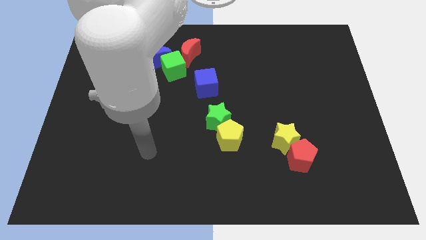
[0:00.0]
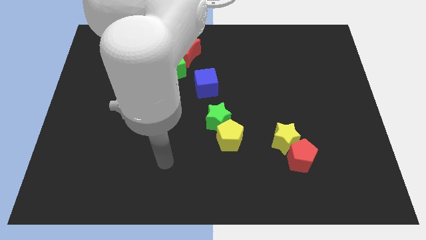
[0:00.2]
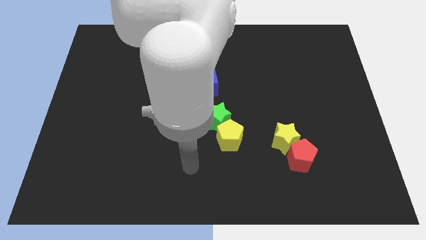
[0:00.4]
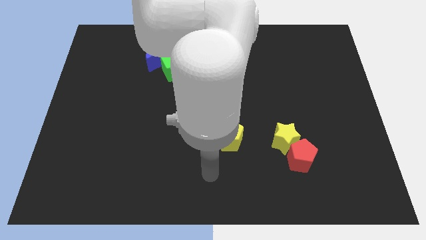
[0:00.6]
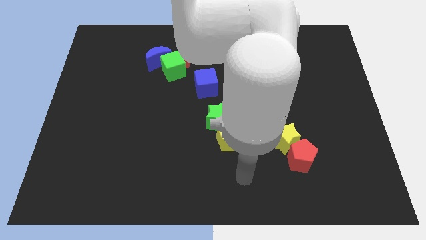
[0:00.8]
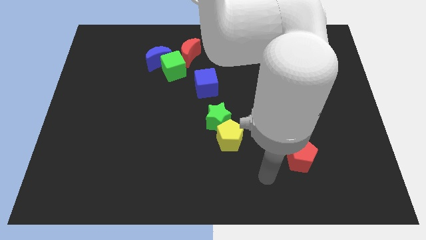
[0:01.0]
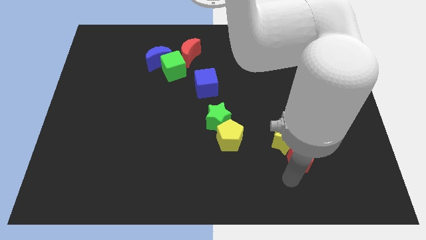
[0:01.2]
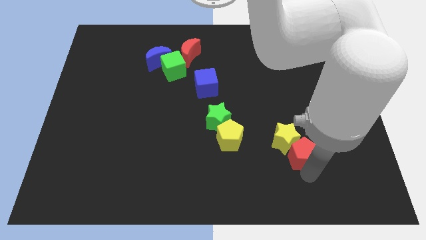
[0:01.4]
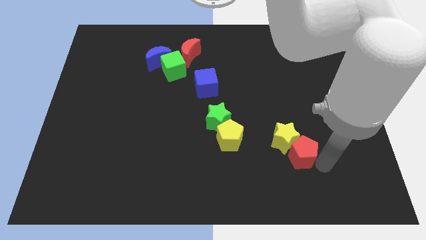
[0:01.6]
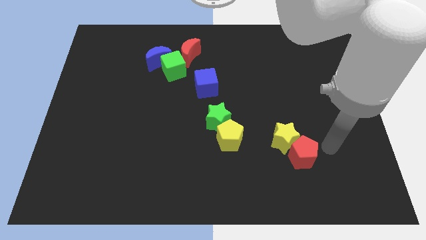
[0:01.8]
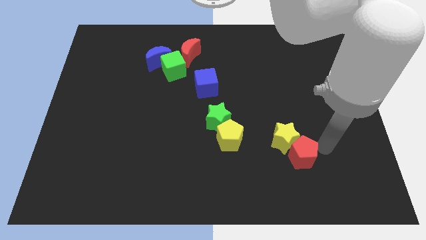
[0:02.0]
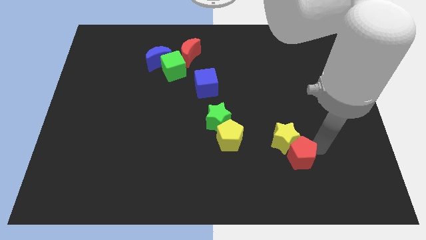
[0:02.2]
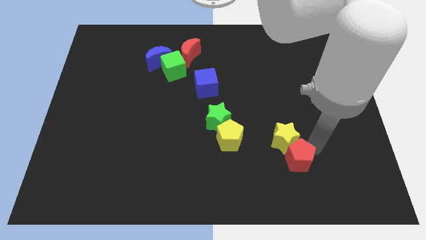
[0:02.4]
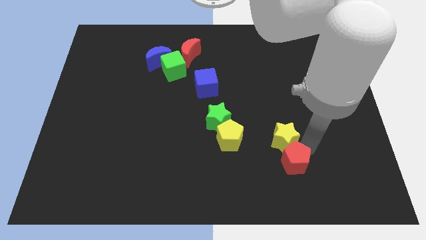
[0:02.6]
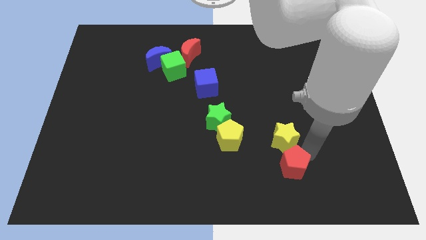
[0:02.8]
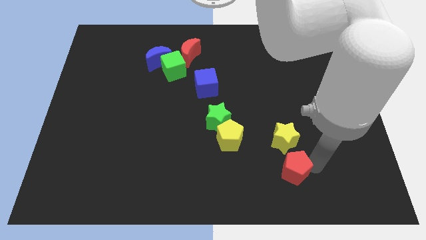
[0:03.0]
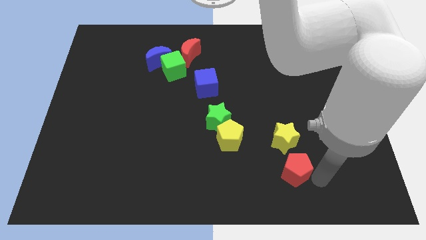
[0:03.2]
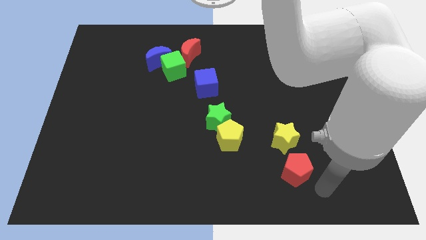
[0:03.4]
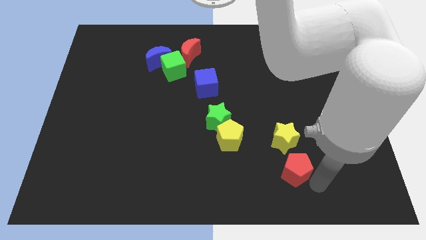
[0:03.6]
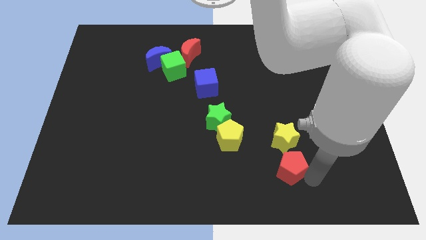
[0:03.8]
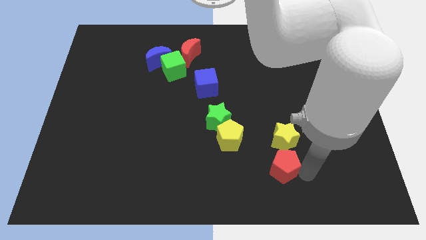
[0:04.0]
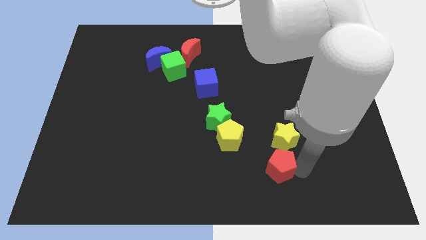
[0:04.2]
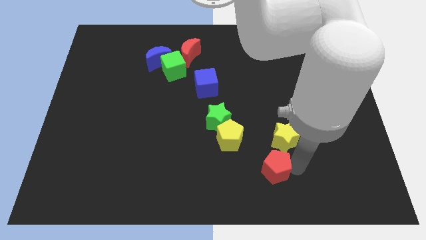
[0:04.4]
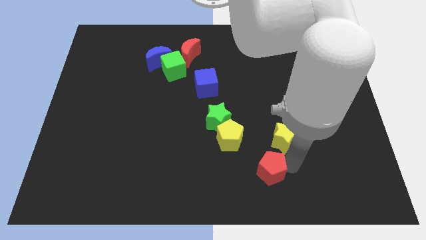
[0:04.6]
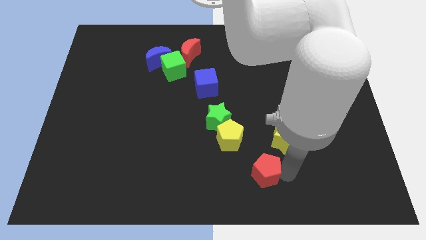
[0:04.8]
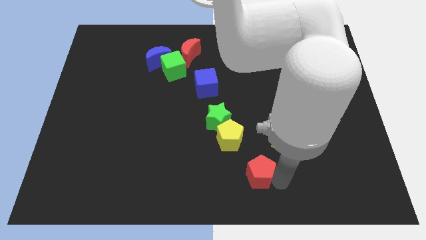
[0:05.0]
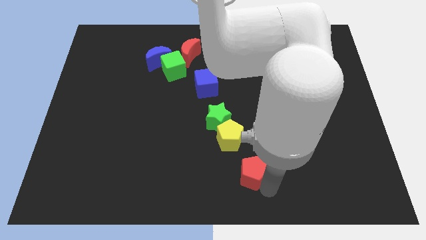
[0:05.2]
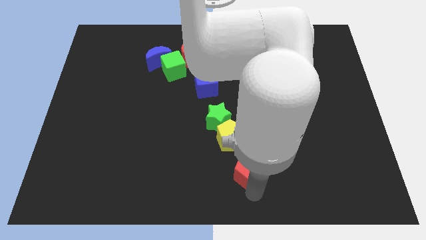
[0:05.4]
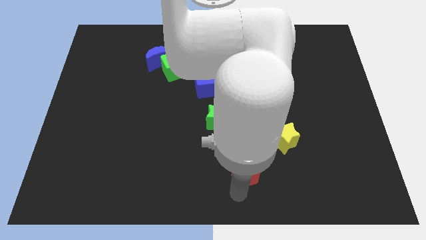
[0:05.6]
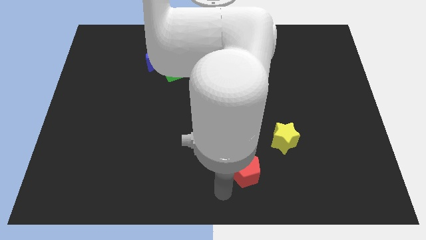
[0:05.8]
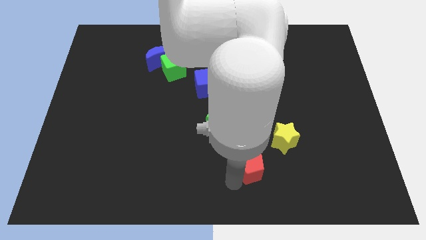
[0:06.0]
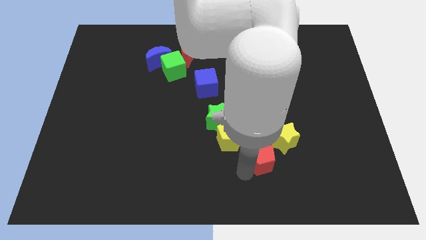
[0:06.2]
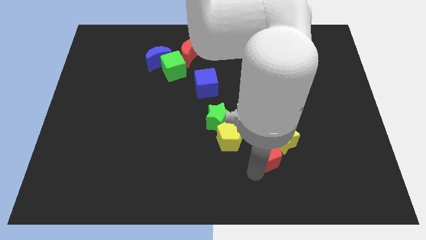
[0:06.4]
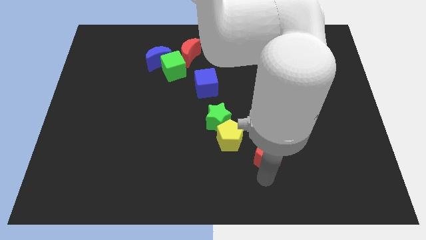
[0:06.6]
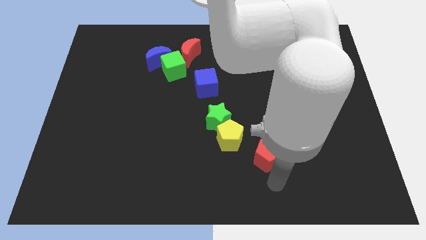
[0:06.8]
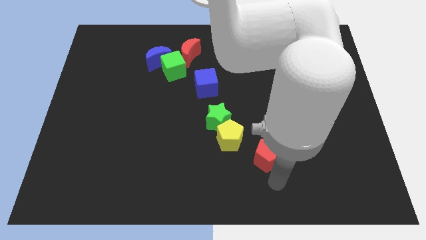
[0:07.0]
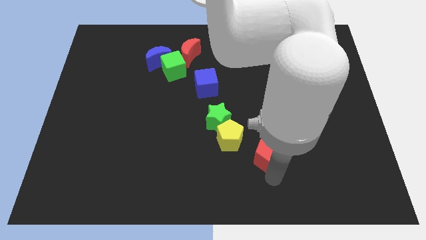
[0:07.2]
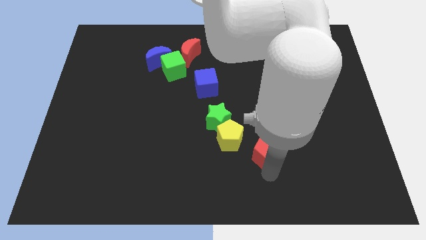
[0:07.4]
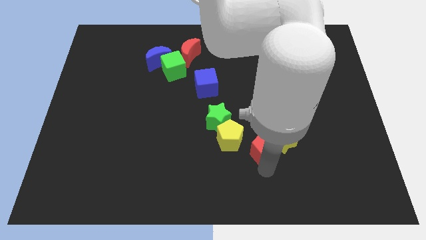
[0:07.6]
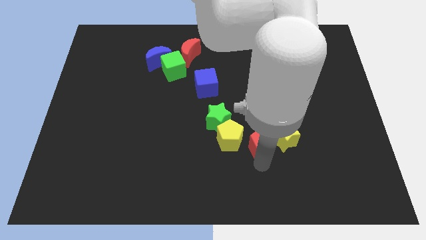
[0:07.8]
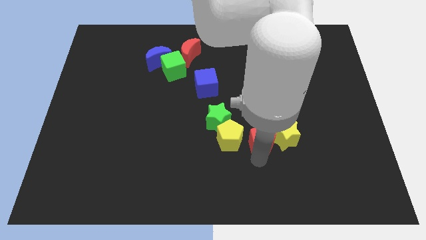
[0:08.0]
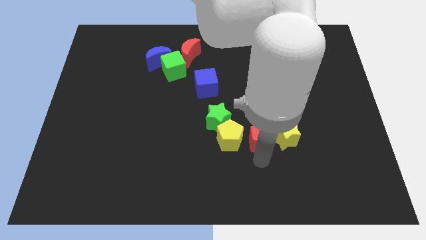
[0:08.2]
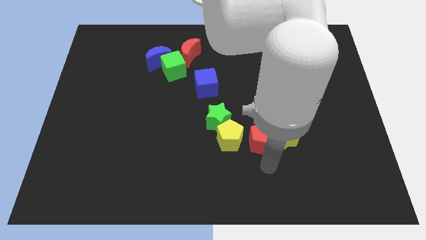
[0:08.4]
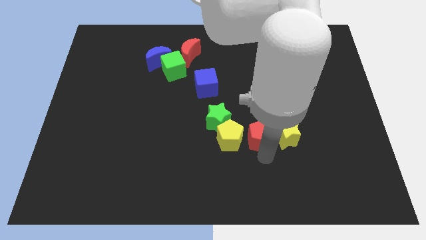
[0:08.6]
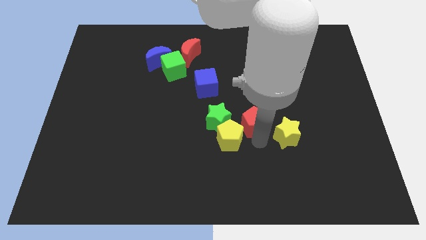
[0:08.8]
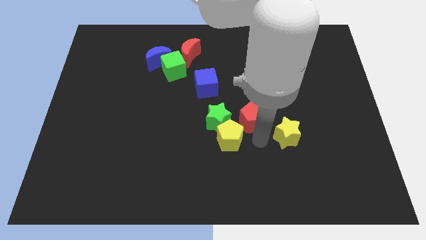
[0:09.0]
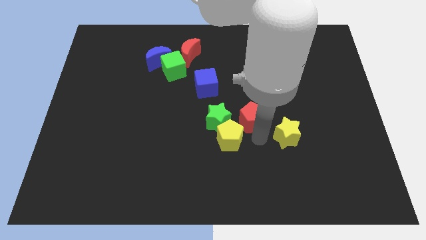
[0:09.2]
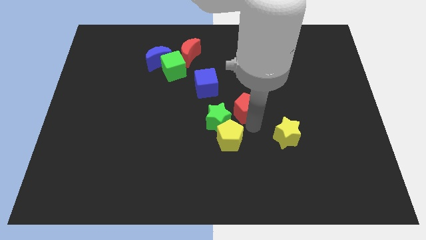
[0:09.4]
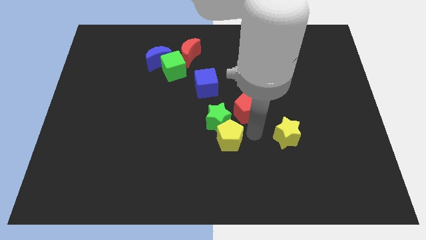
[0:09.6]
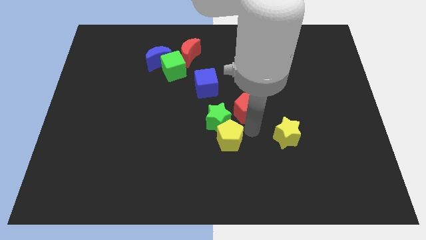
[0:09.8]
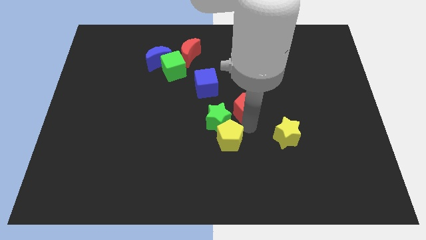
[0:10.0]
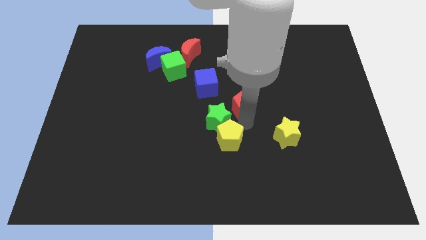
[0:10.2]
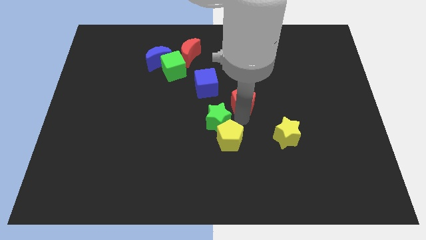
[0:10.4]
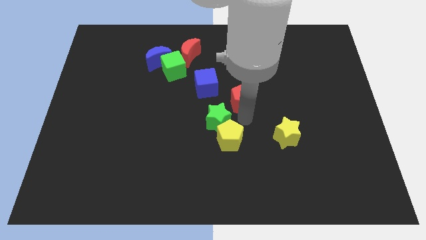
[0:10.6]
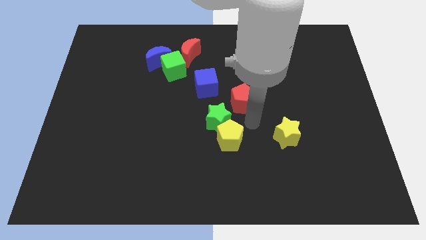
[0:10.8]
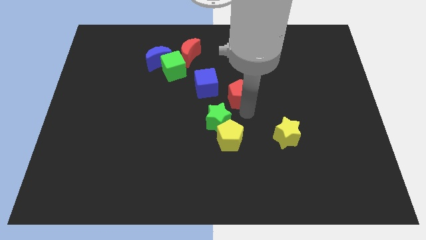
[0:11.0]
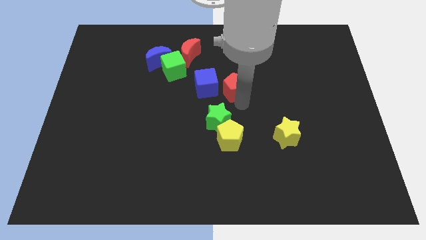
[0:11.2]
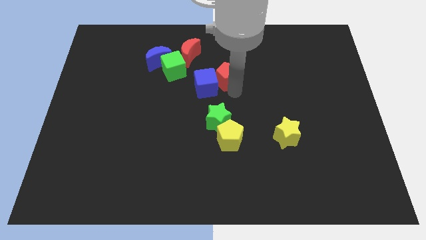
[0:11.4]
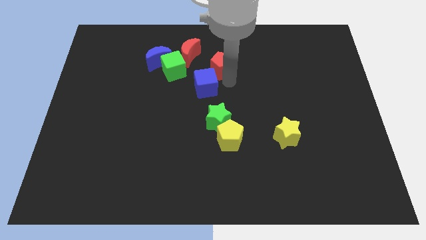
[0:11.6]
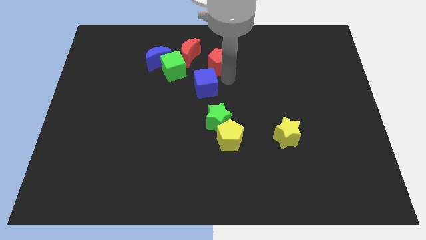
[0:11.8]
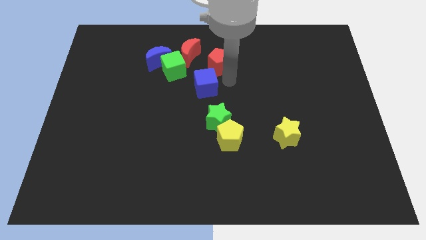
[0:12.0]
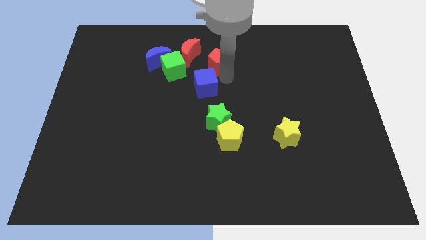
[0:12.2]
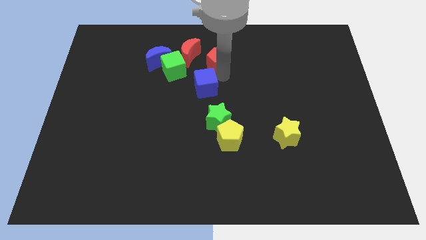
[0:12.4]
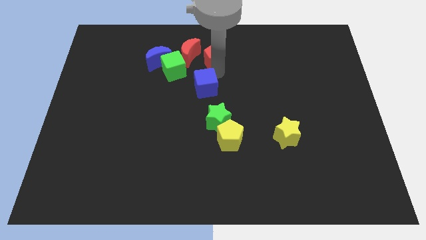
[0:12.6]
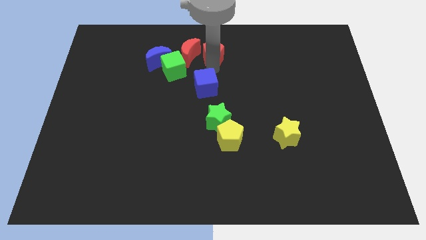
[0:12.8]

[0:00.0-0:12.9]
move the red pentagon to the top side

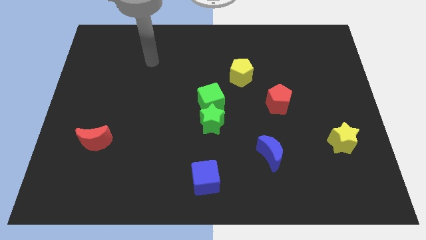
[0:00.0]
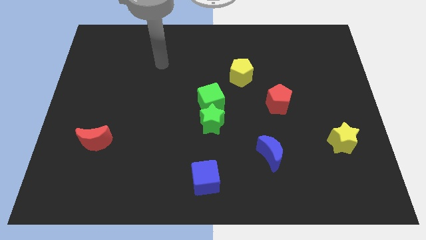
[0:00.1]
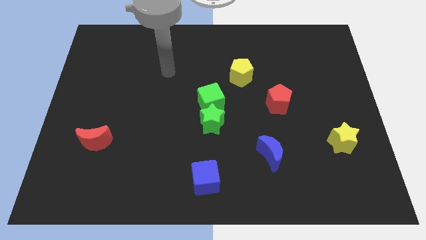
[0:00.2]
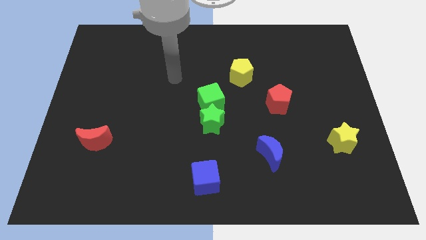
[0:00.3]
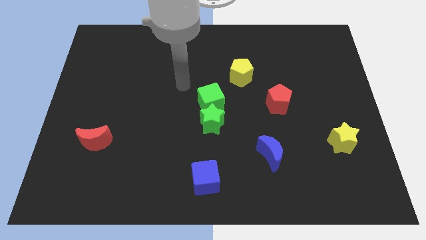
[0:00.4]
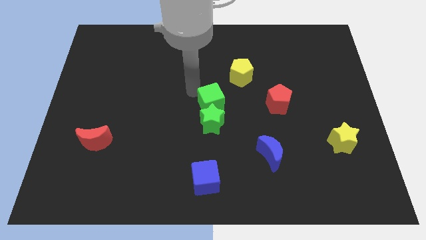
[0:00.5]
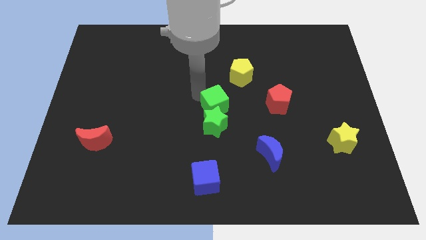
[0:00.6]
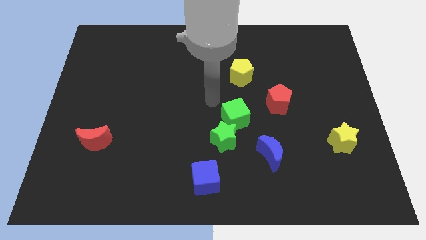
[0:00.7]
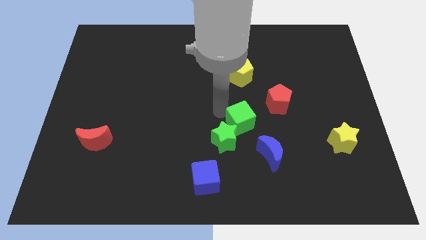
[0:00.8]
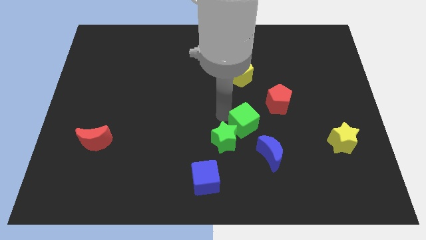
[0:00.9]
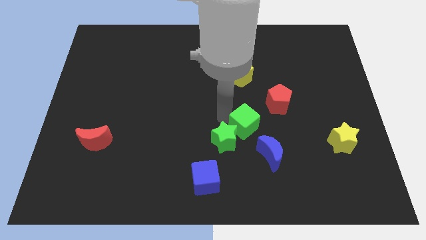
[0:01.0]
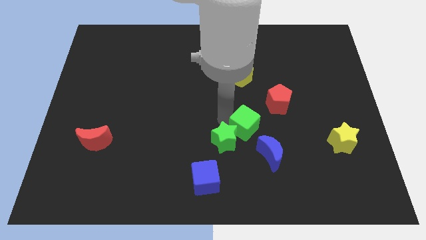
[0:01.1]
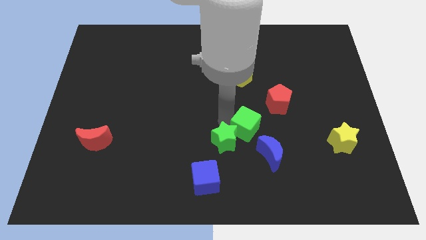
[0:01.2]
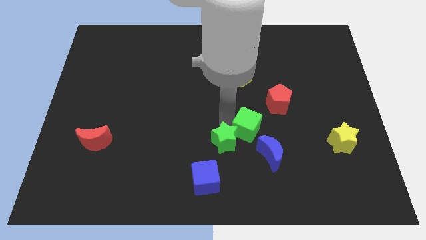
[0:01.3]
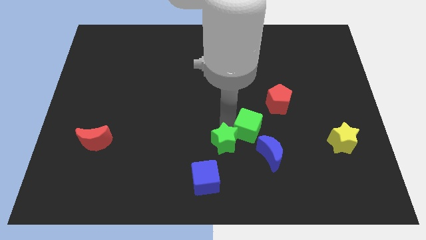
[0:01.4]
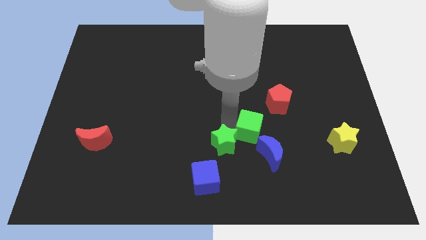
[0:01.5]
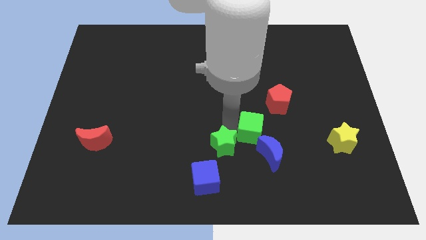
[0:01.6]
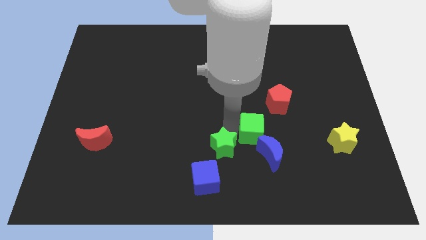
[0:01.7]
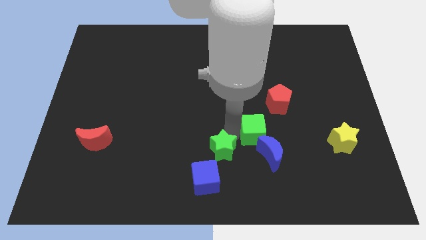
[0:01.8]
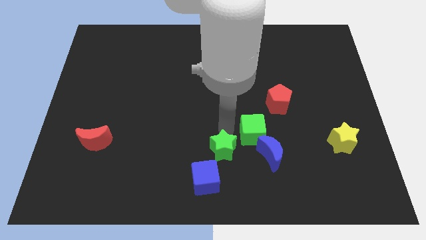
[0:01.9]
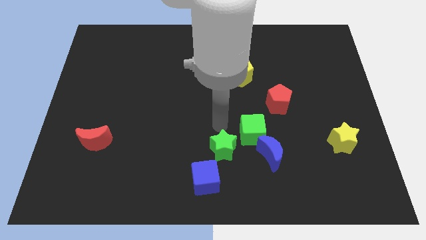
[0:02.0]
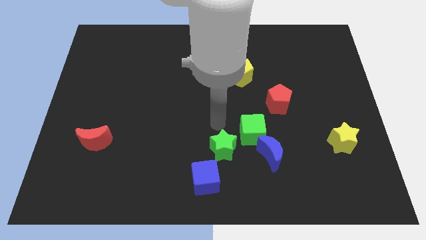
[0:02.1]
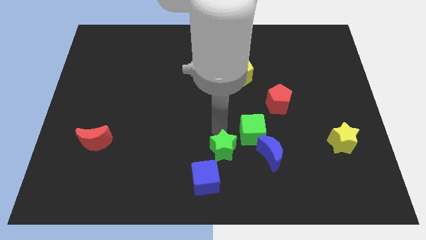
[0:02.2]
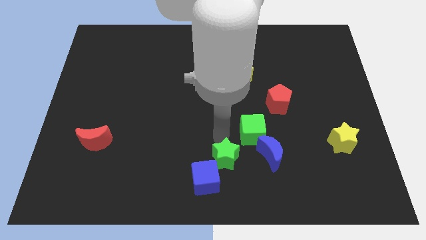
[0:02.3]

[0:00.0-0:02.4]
move the green star to the bottom
